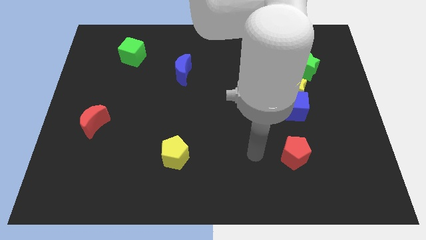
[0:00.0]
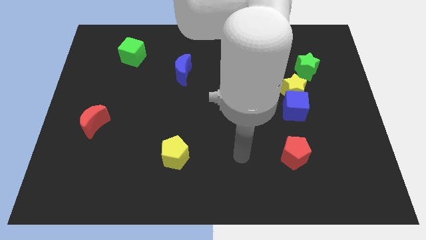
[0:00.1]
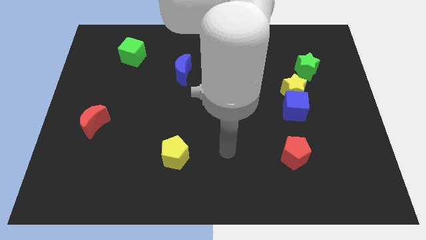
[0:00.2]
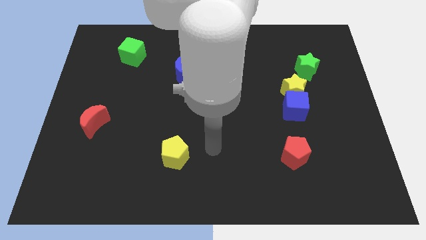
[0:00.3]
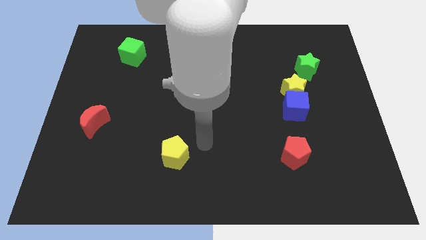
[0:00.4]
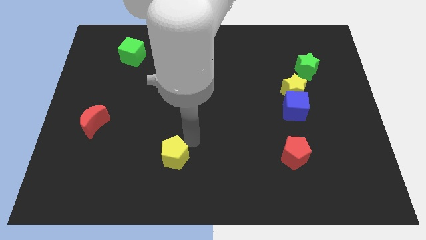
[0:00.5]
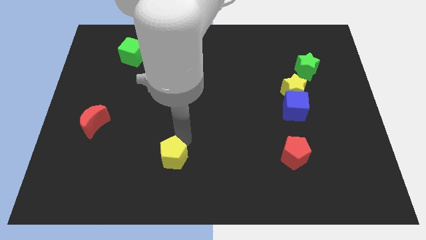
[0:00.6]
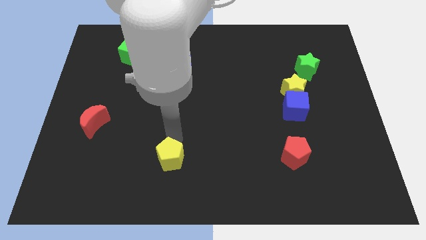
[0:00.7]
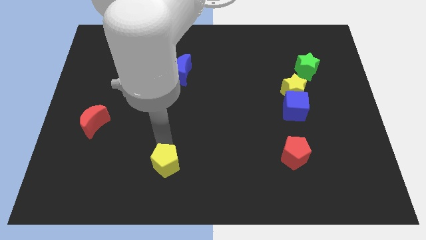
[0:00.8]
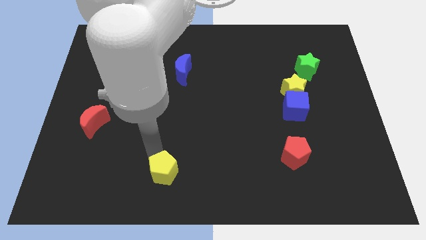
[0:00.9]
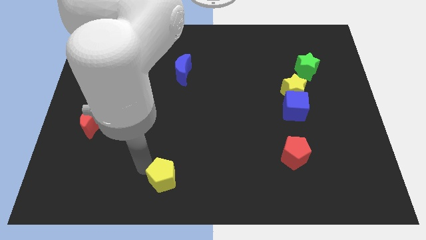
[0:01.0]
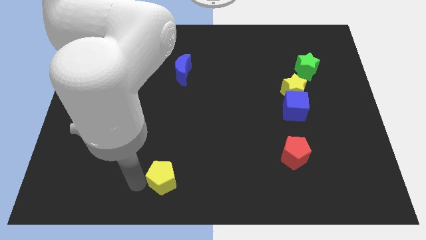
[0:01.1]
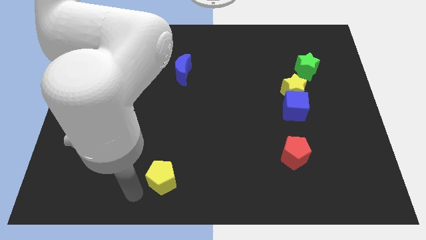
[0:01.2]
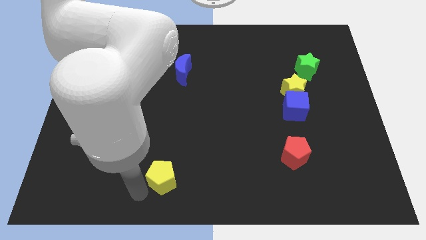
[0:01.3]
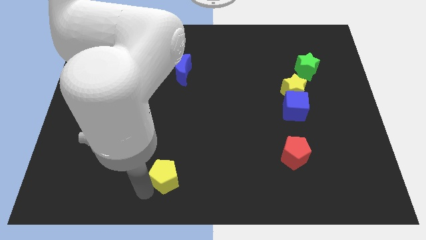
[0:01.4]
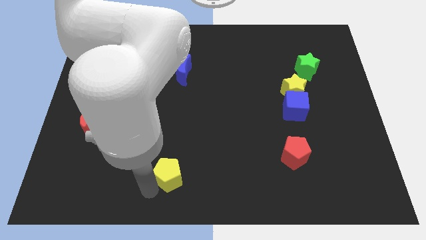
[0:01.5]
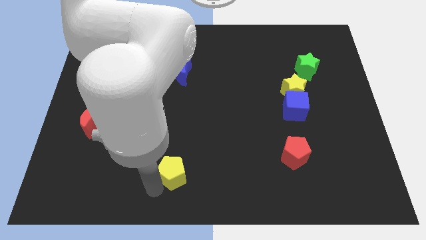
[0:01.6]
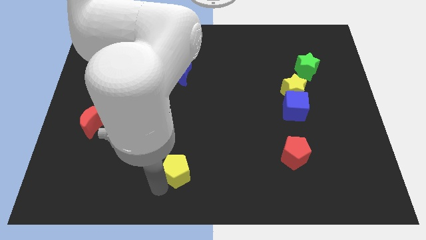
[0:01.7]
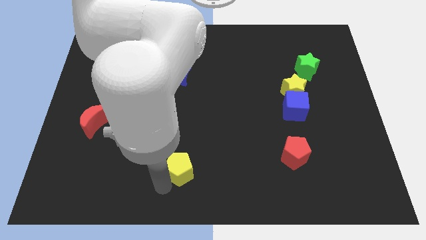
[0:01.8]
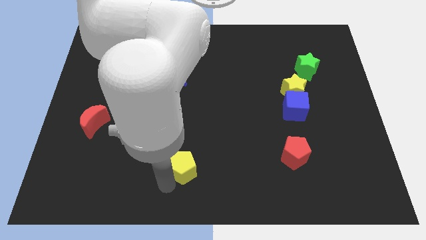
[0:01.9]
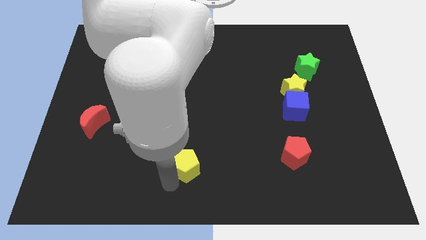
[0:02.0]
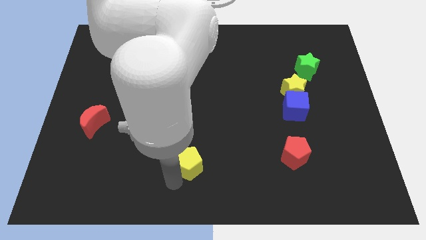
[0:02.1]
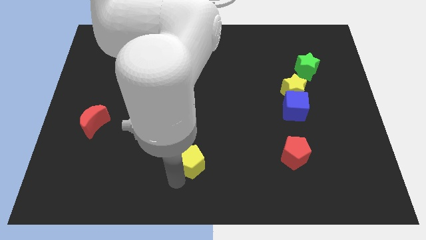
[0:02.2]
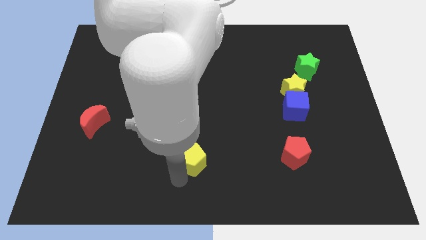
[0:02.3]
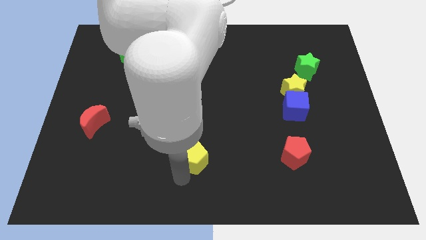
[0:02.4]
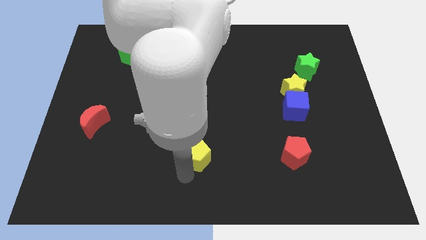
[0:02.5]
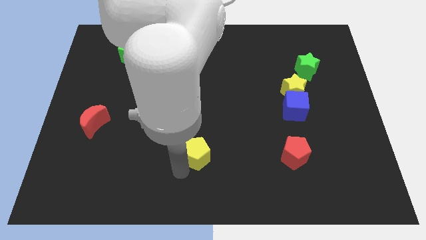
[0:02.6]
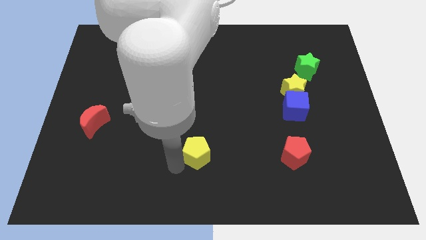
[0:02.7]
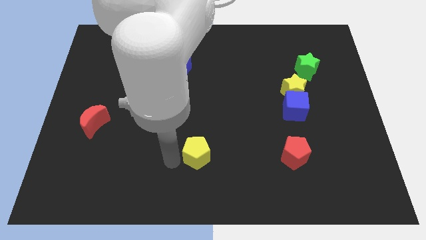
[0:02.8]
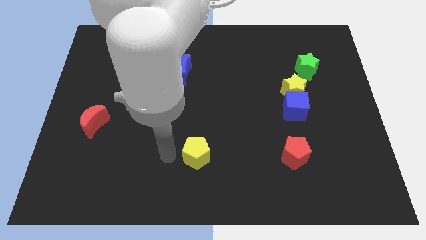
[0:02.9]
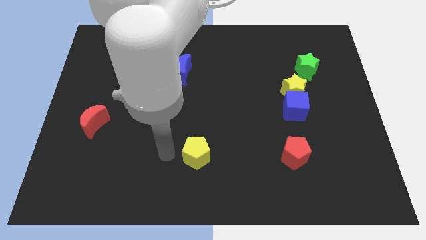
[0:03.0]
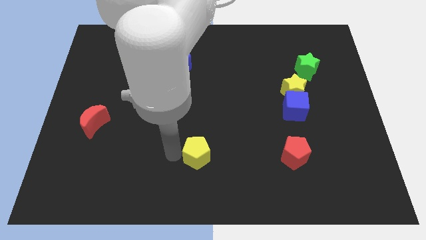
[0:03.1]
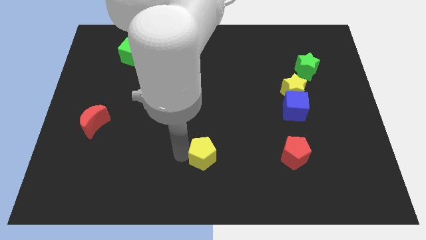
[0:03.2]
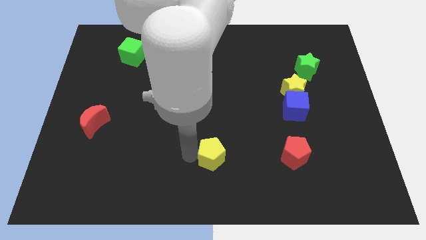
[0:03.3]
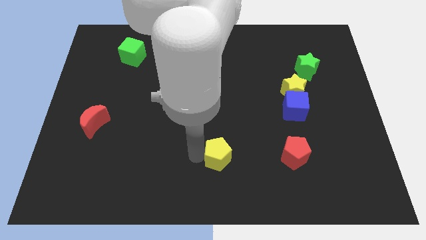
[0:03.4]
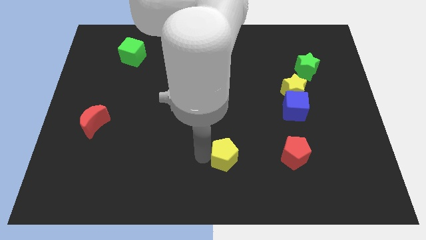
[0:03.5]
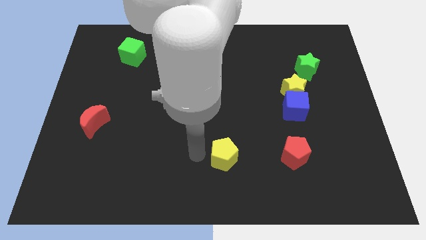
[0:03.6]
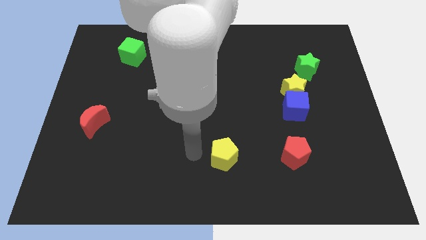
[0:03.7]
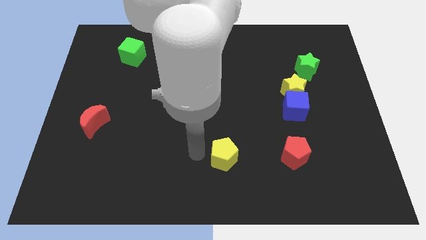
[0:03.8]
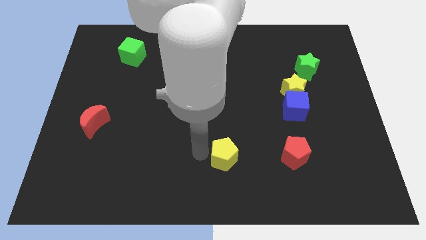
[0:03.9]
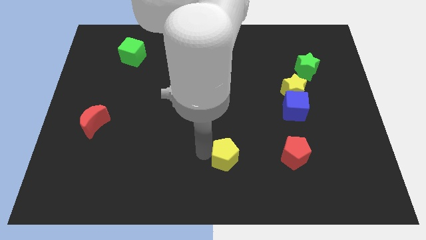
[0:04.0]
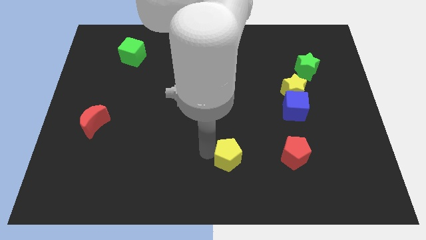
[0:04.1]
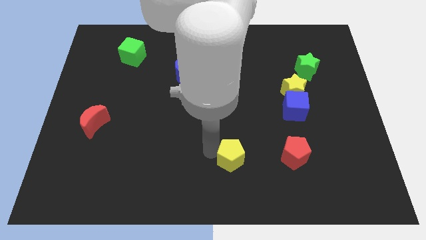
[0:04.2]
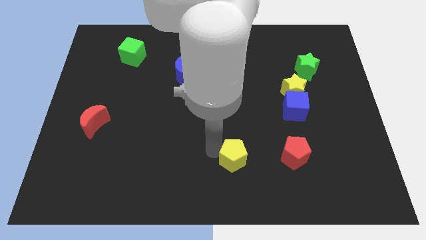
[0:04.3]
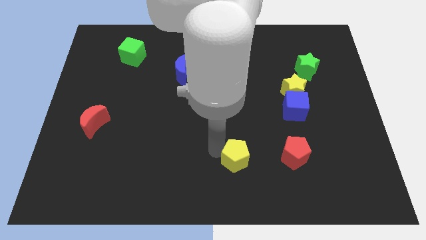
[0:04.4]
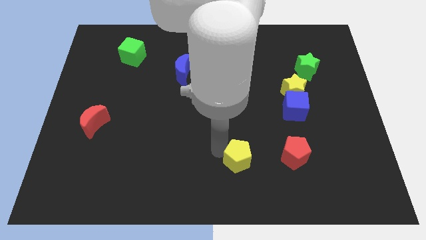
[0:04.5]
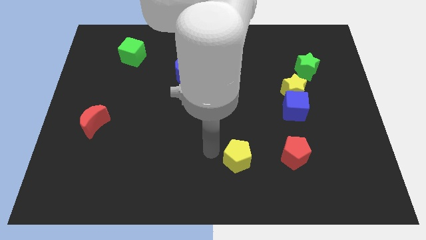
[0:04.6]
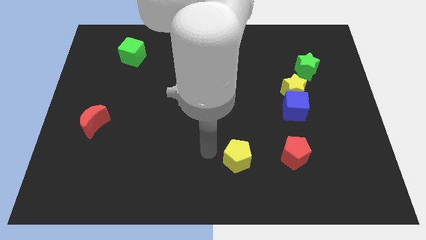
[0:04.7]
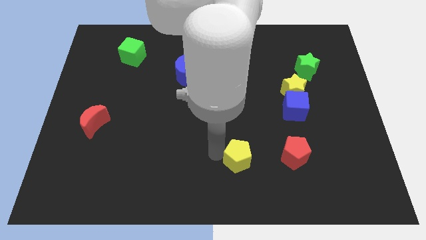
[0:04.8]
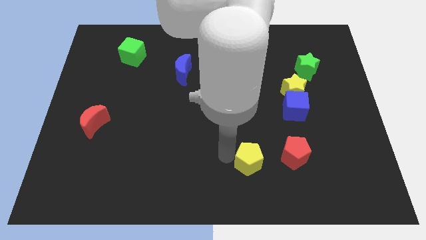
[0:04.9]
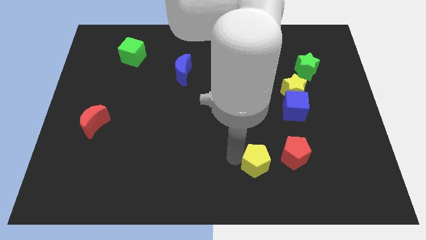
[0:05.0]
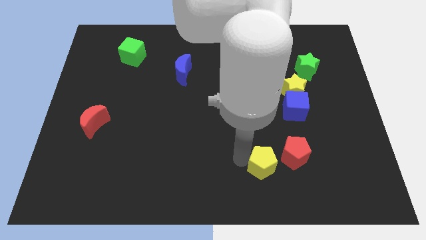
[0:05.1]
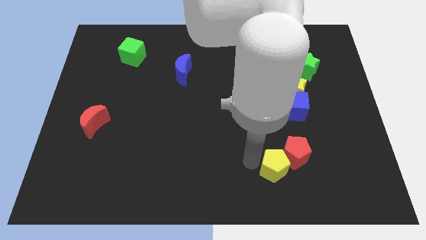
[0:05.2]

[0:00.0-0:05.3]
move the yellow pentagon to the right

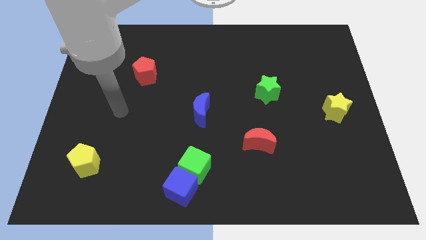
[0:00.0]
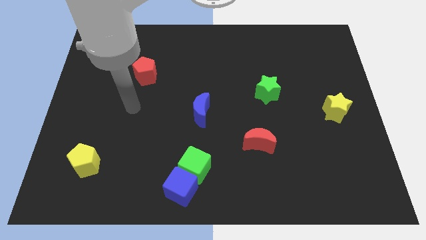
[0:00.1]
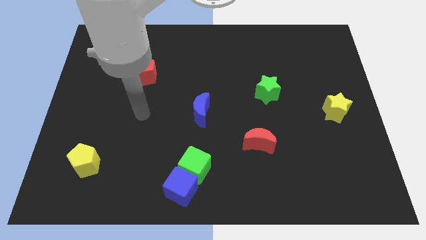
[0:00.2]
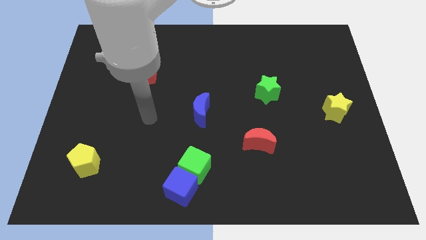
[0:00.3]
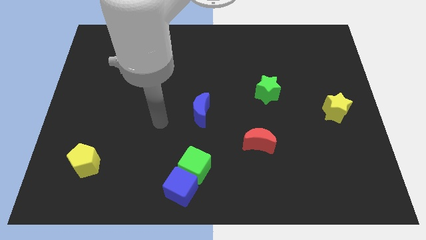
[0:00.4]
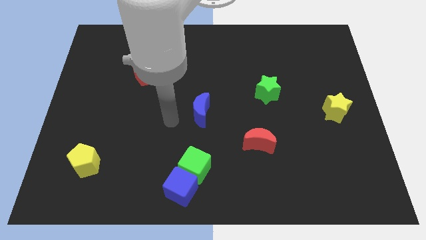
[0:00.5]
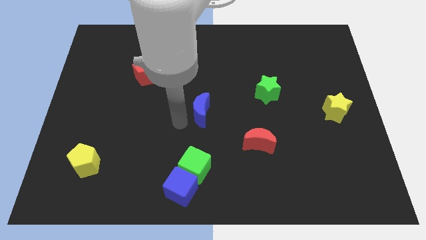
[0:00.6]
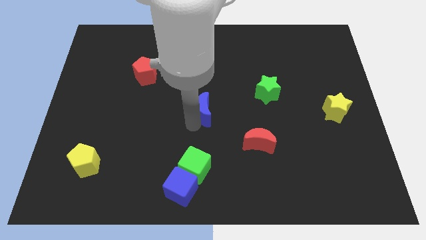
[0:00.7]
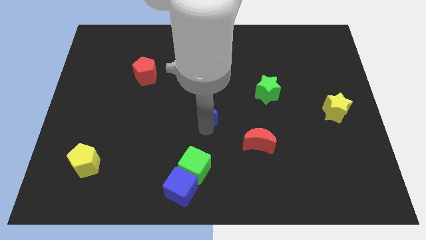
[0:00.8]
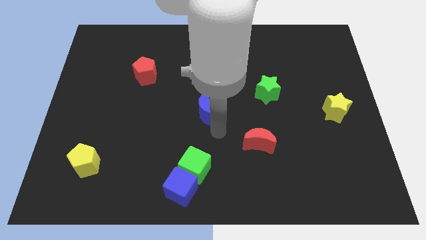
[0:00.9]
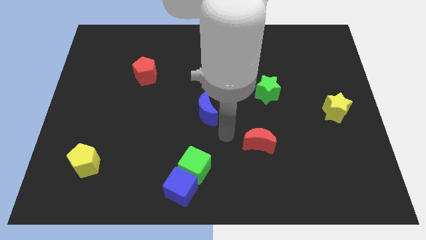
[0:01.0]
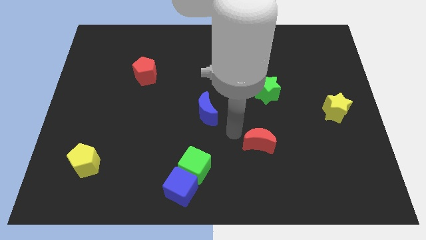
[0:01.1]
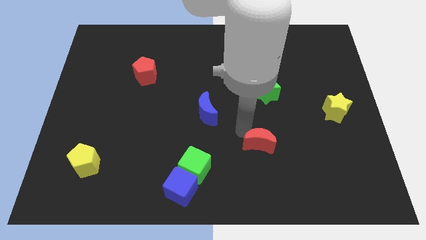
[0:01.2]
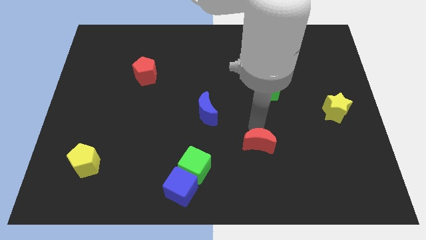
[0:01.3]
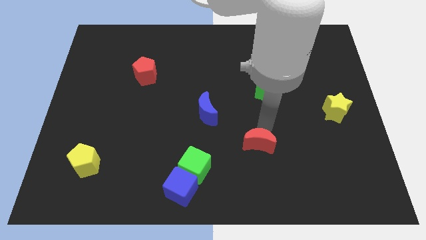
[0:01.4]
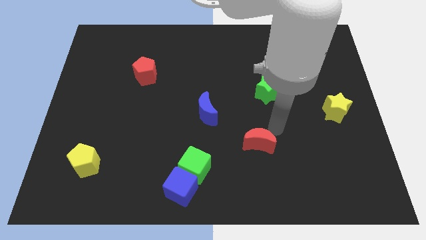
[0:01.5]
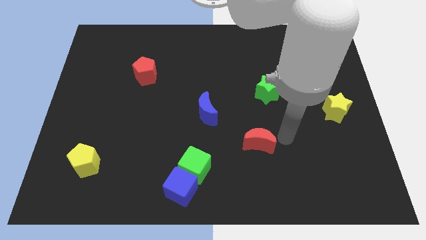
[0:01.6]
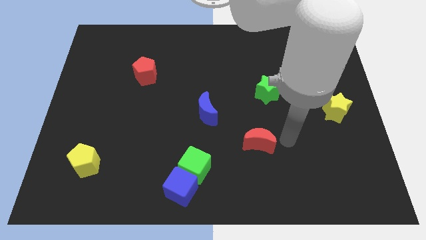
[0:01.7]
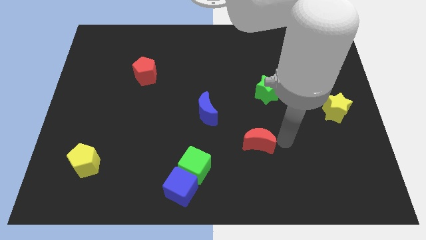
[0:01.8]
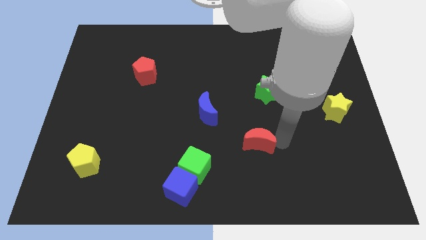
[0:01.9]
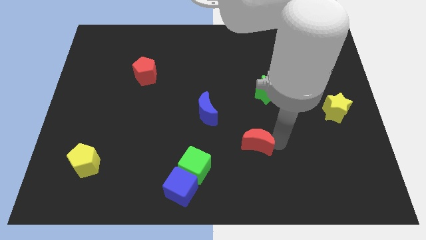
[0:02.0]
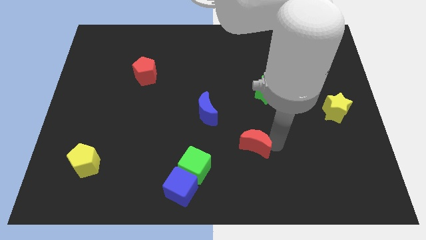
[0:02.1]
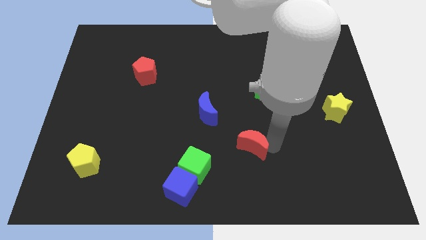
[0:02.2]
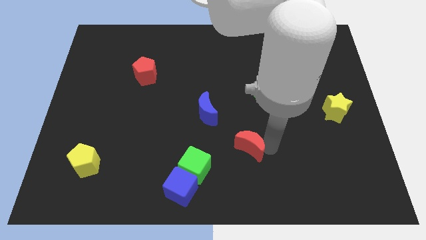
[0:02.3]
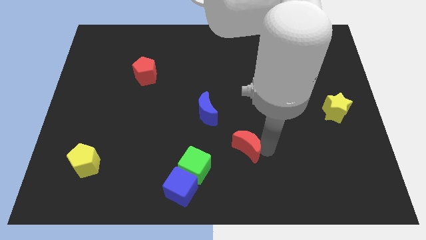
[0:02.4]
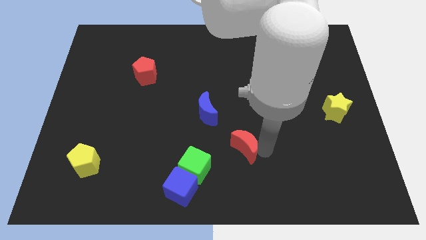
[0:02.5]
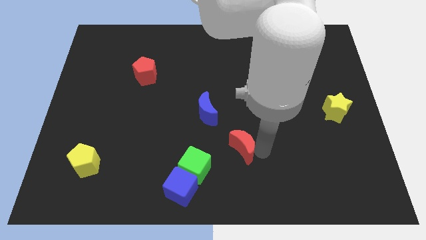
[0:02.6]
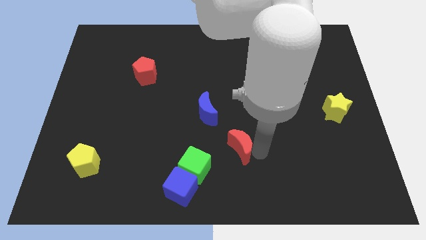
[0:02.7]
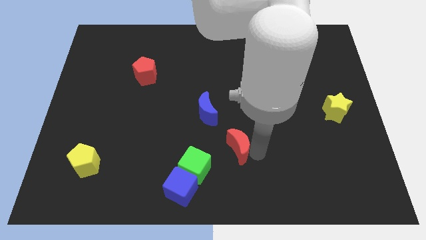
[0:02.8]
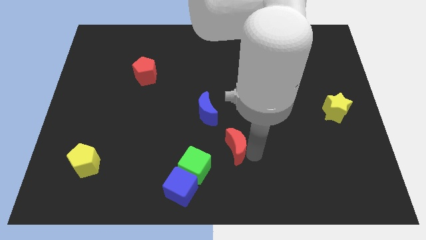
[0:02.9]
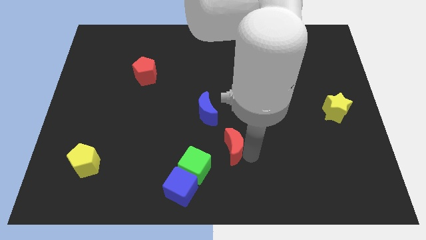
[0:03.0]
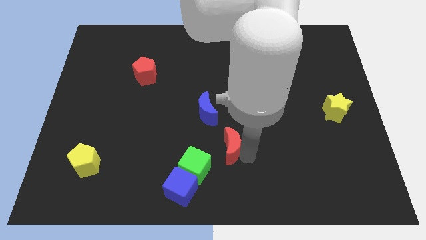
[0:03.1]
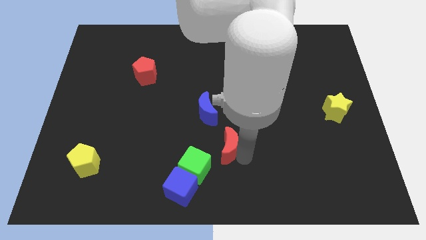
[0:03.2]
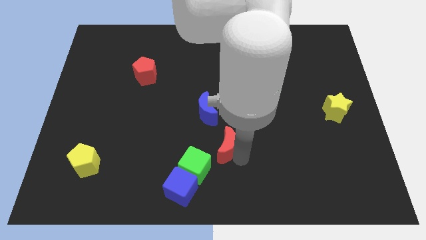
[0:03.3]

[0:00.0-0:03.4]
push the red moon somewhat to the left
